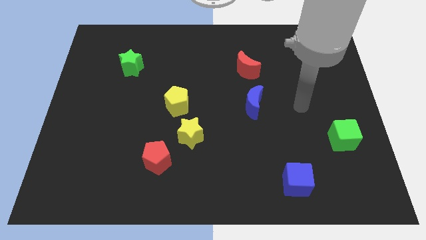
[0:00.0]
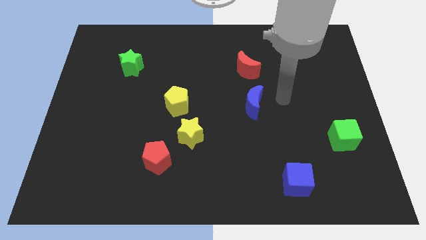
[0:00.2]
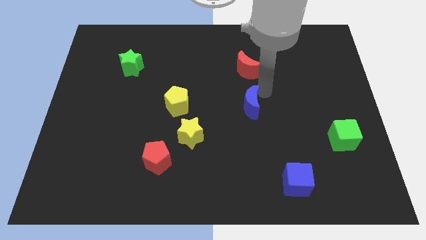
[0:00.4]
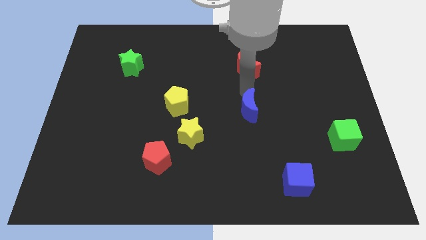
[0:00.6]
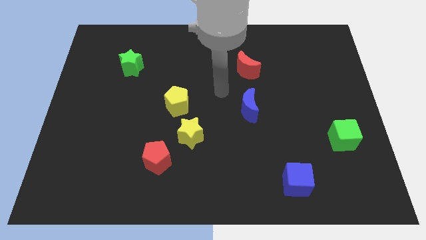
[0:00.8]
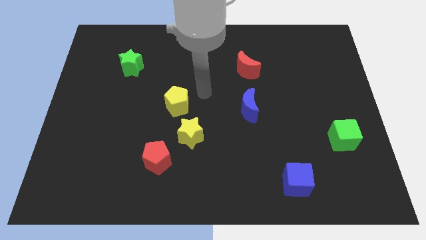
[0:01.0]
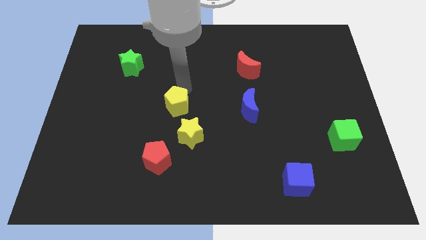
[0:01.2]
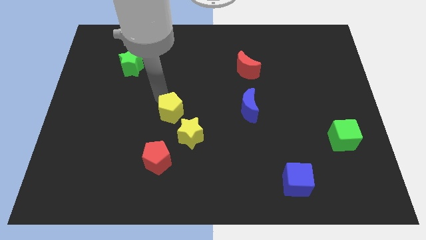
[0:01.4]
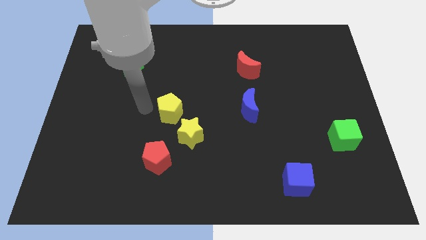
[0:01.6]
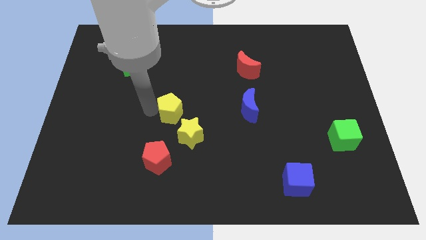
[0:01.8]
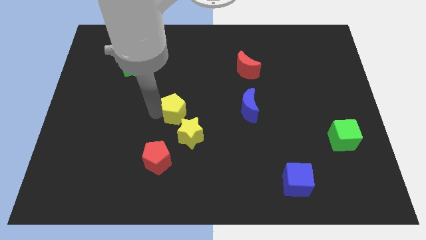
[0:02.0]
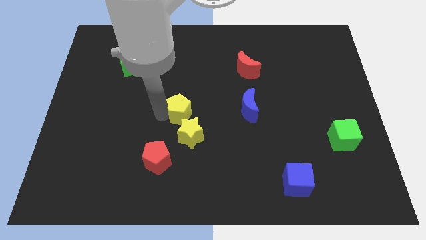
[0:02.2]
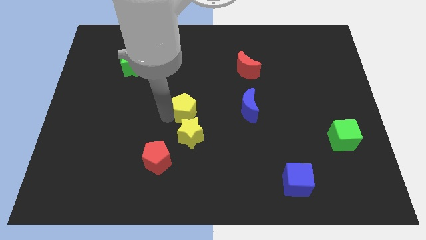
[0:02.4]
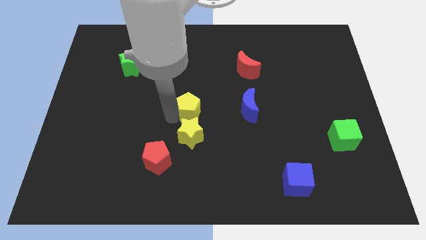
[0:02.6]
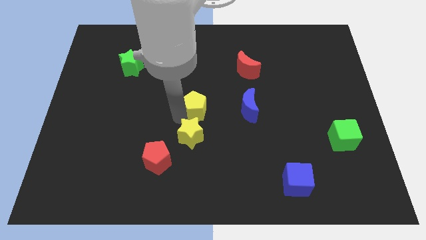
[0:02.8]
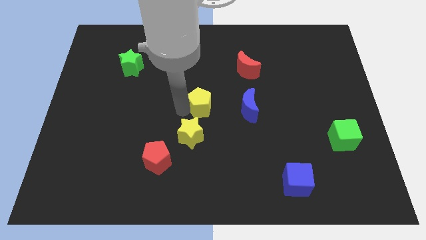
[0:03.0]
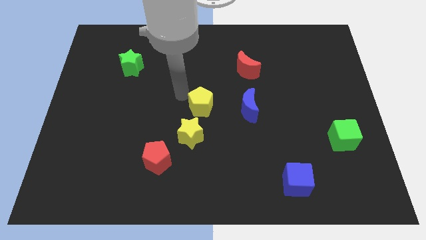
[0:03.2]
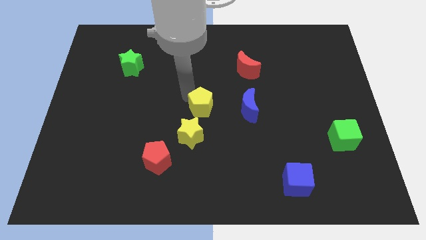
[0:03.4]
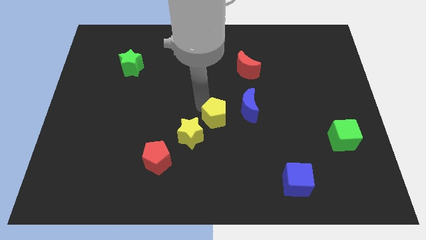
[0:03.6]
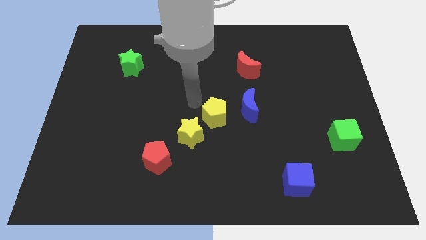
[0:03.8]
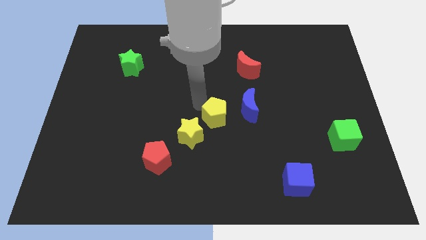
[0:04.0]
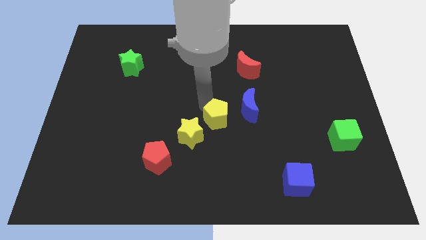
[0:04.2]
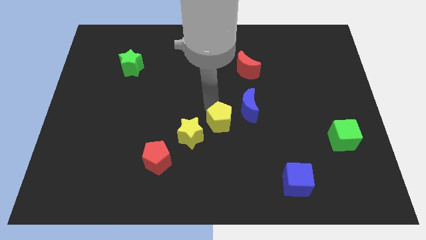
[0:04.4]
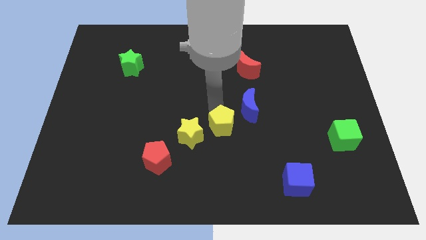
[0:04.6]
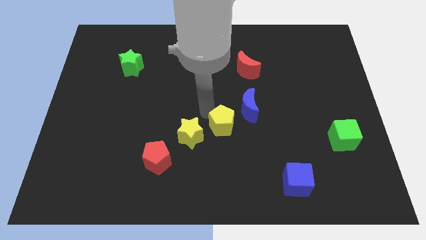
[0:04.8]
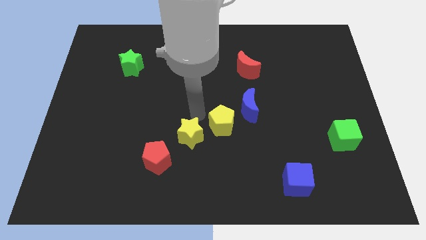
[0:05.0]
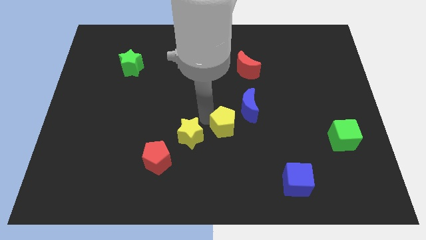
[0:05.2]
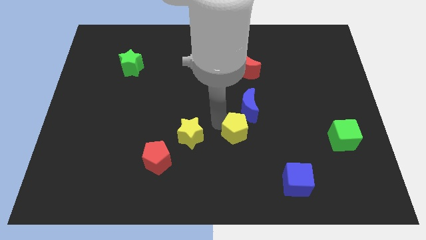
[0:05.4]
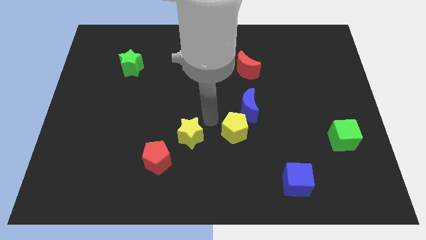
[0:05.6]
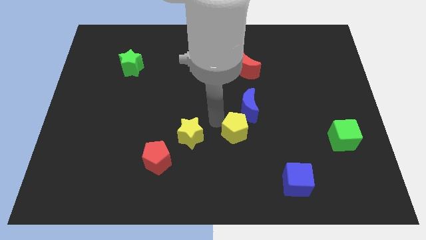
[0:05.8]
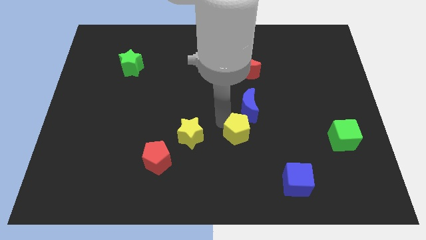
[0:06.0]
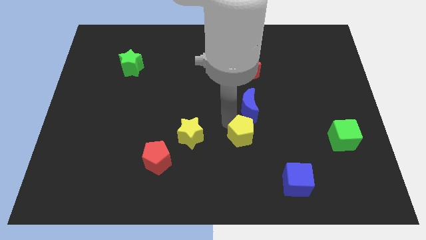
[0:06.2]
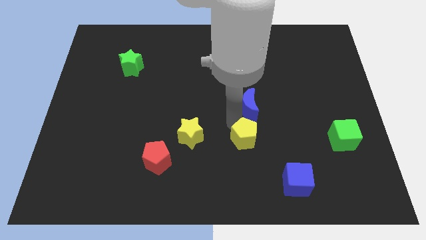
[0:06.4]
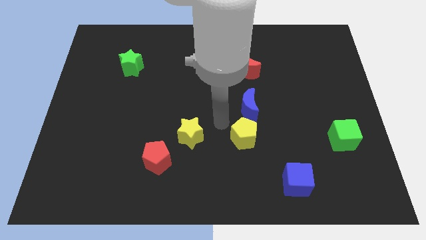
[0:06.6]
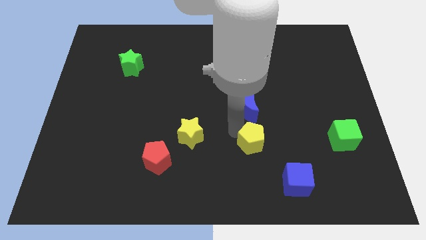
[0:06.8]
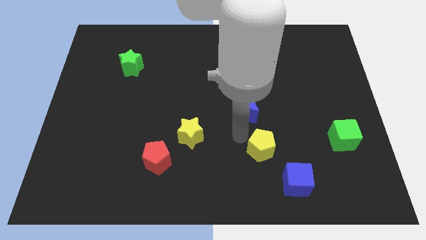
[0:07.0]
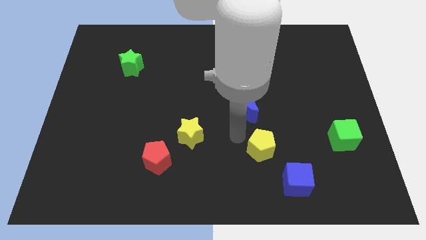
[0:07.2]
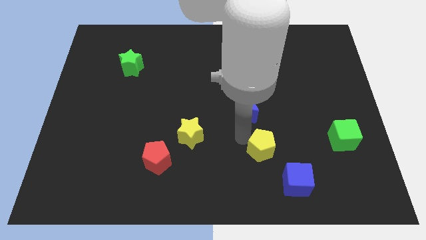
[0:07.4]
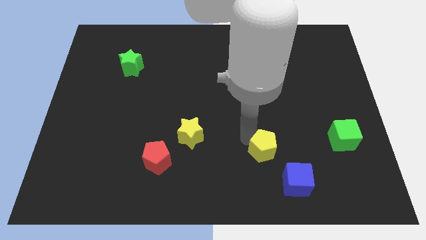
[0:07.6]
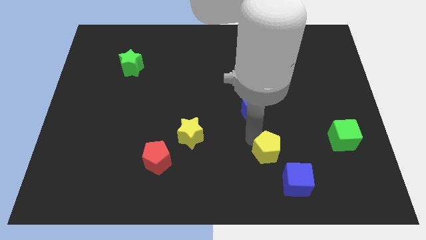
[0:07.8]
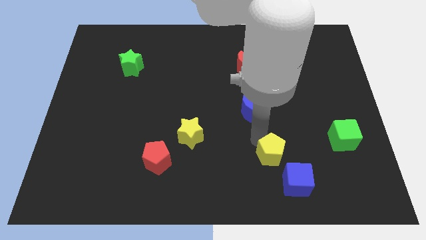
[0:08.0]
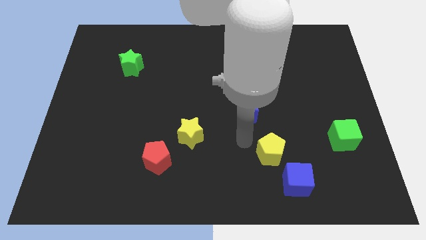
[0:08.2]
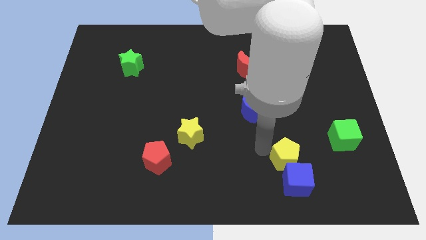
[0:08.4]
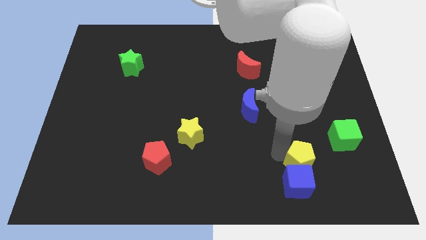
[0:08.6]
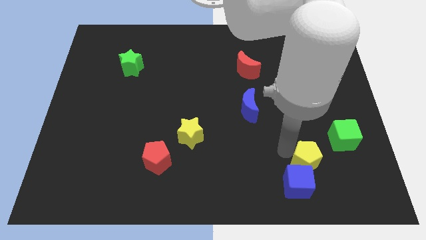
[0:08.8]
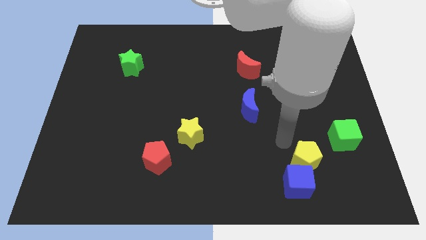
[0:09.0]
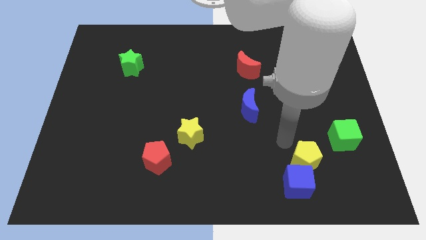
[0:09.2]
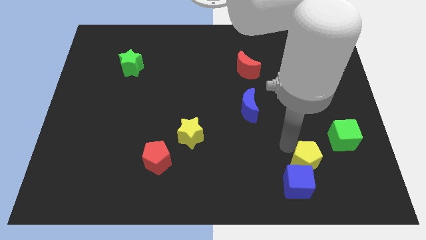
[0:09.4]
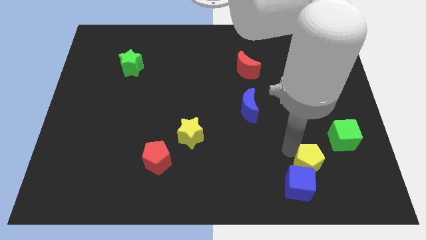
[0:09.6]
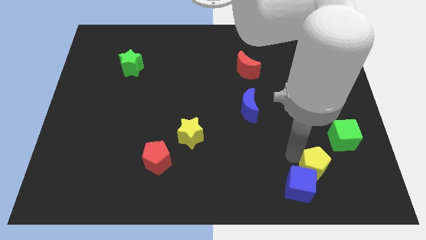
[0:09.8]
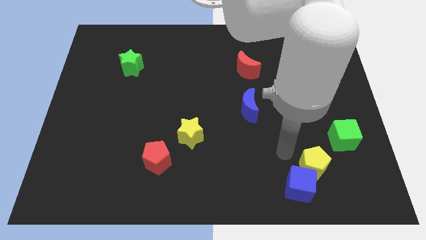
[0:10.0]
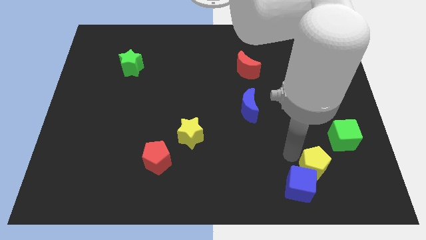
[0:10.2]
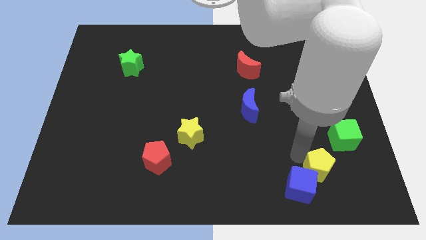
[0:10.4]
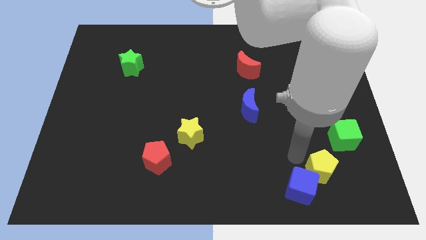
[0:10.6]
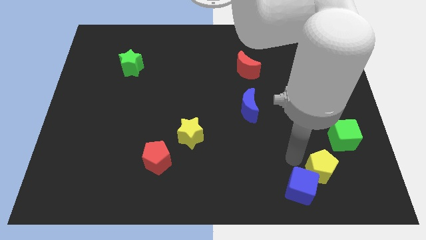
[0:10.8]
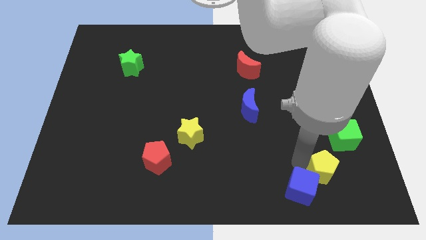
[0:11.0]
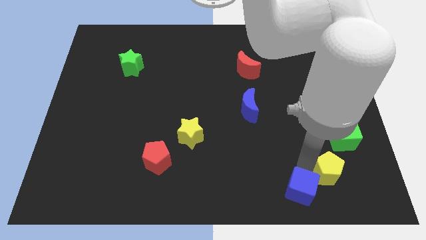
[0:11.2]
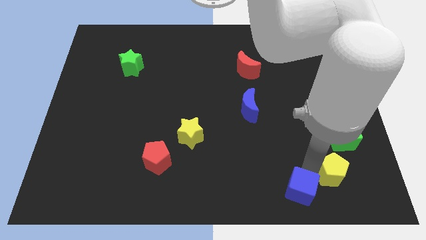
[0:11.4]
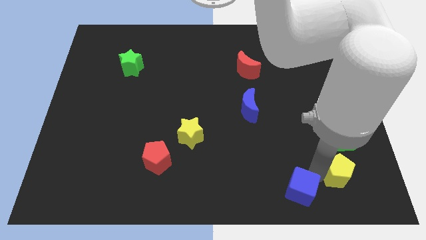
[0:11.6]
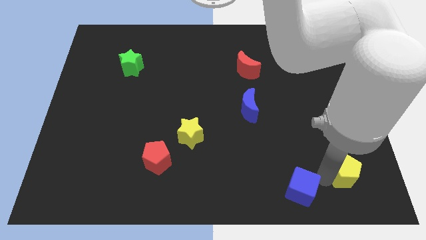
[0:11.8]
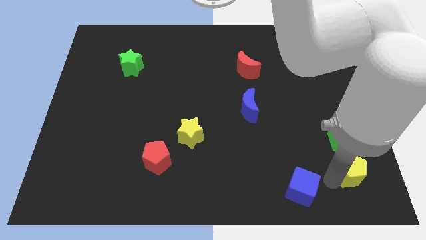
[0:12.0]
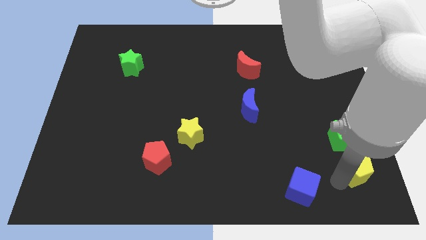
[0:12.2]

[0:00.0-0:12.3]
put the yellow pentagon to the bottom right of the board
